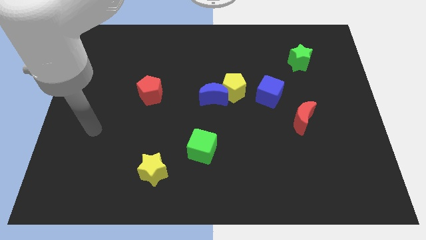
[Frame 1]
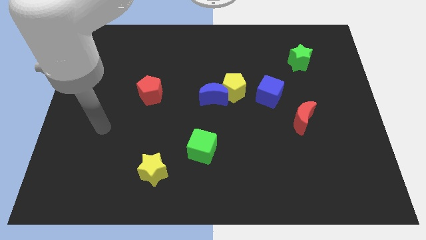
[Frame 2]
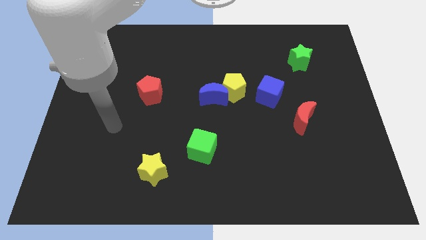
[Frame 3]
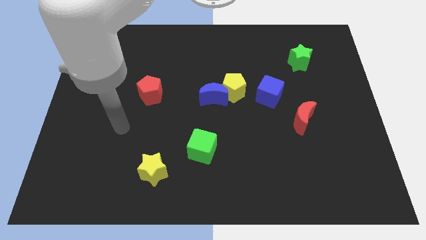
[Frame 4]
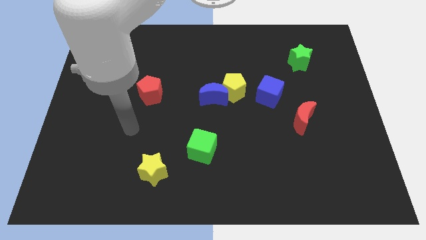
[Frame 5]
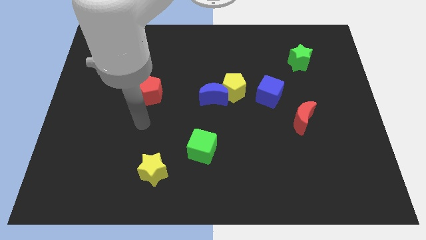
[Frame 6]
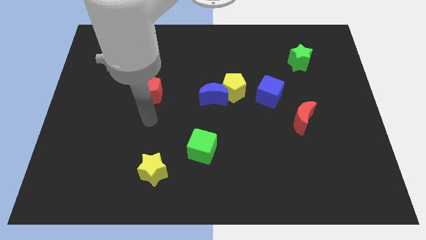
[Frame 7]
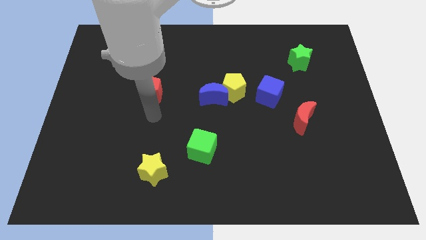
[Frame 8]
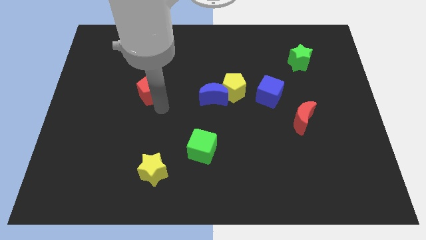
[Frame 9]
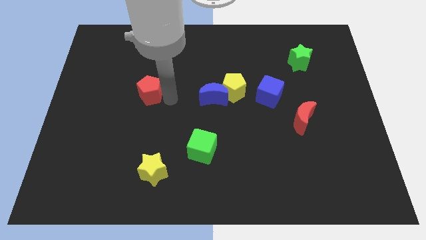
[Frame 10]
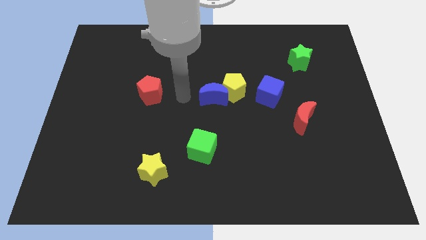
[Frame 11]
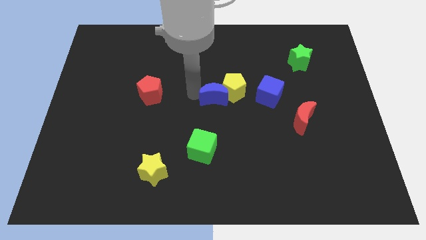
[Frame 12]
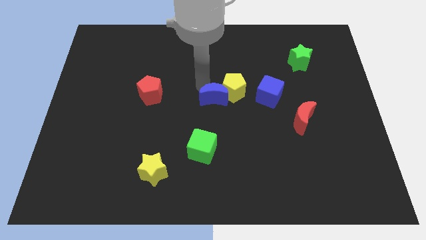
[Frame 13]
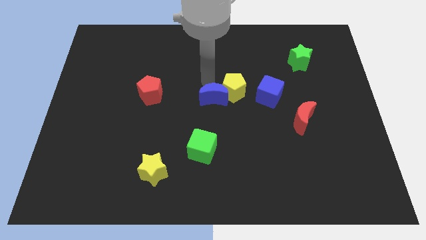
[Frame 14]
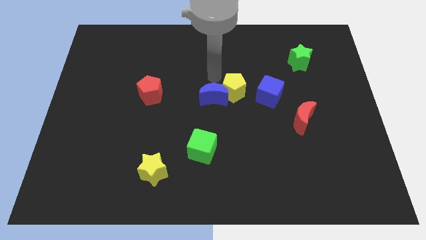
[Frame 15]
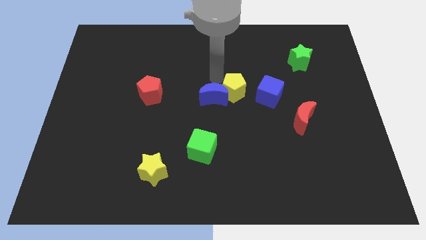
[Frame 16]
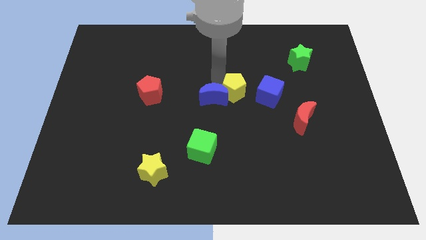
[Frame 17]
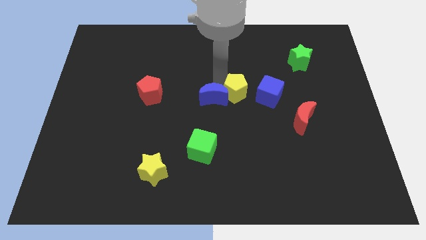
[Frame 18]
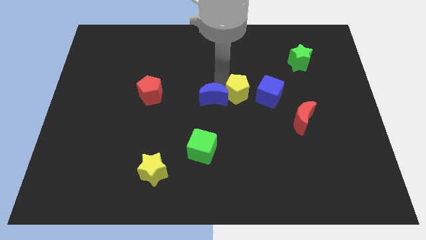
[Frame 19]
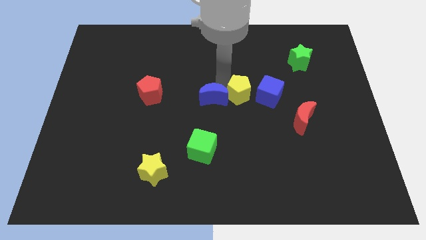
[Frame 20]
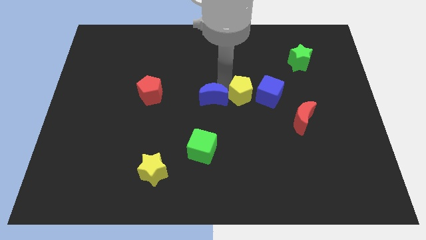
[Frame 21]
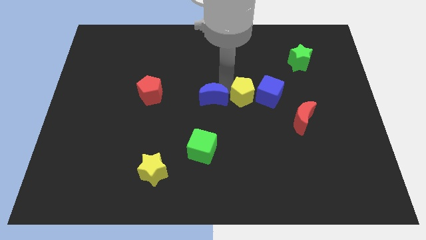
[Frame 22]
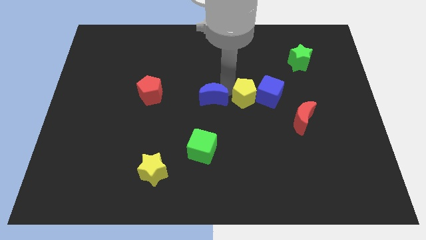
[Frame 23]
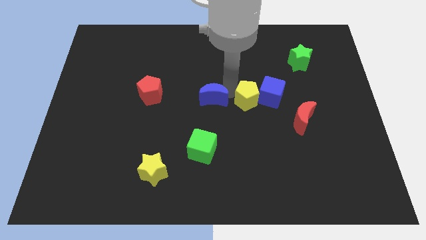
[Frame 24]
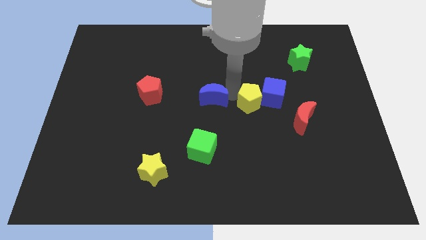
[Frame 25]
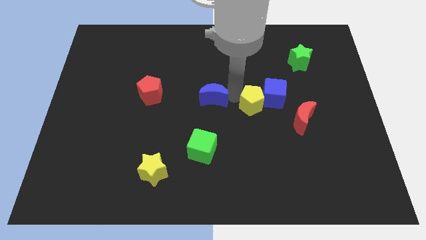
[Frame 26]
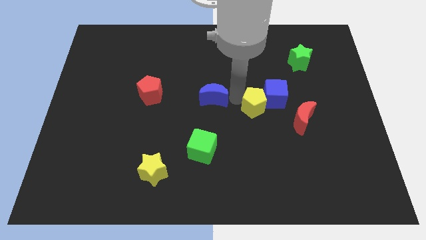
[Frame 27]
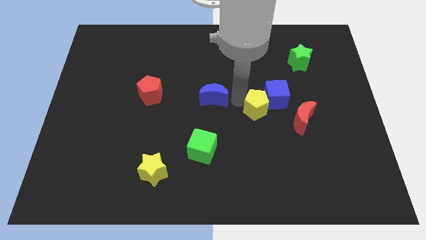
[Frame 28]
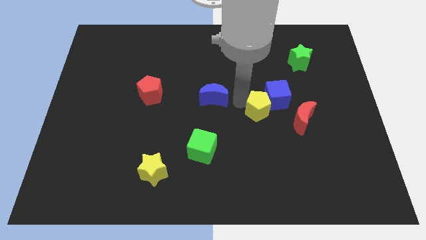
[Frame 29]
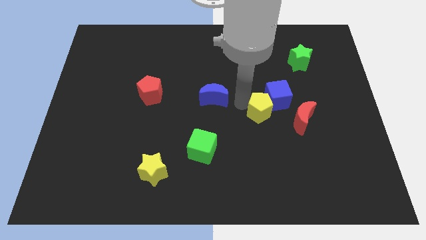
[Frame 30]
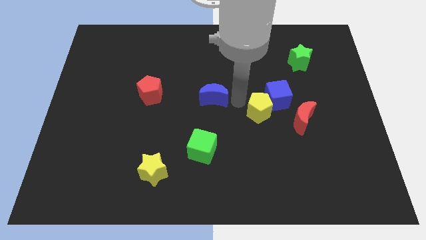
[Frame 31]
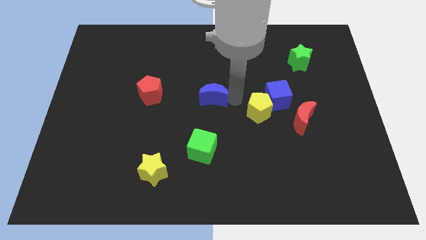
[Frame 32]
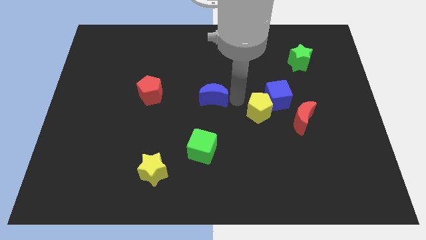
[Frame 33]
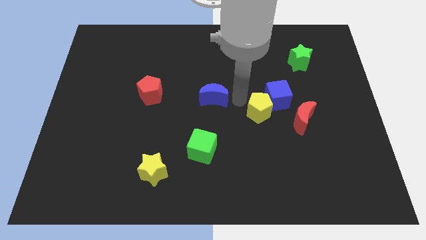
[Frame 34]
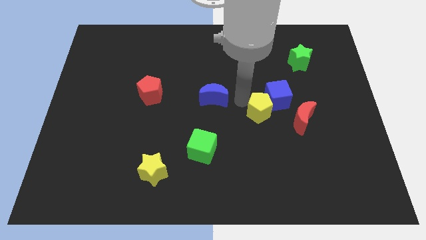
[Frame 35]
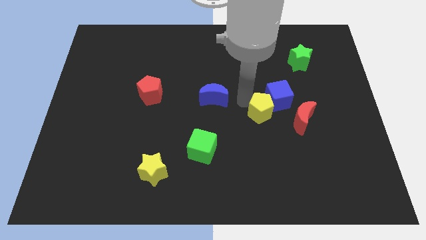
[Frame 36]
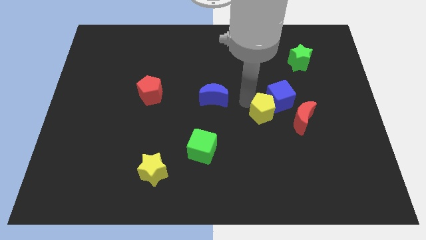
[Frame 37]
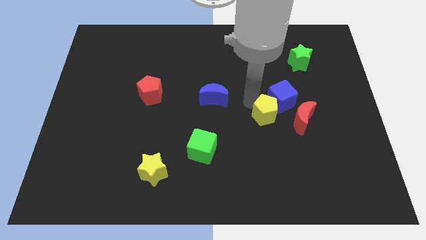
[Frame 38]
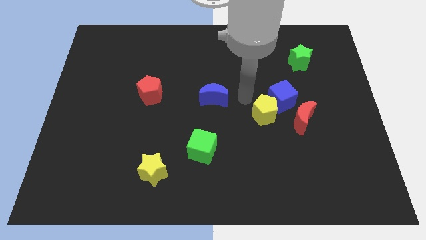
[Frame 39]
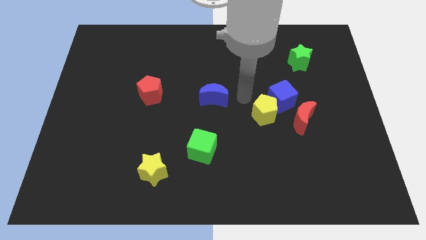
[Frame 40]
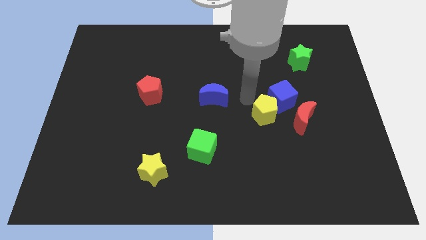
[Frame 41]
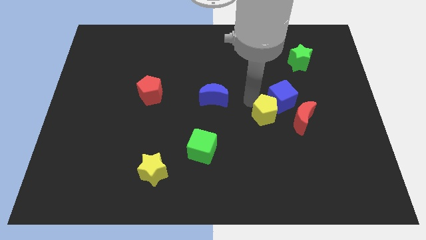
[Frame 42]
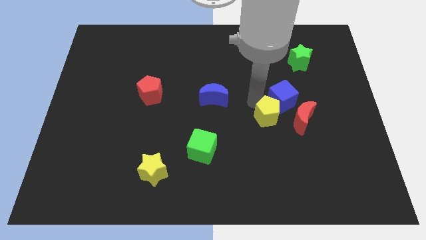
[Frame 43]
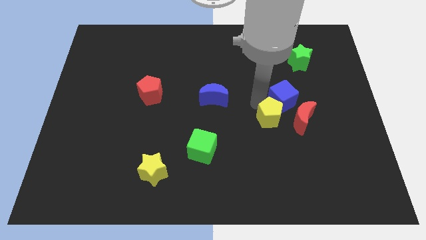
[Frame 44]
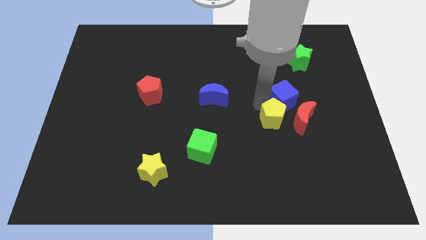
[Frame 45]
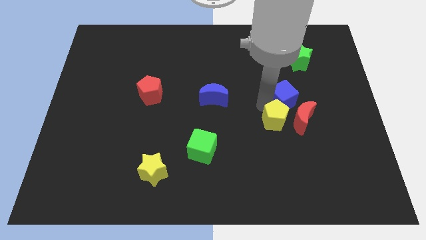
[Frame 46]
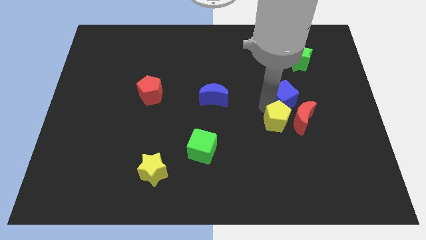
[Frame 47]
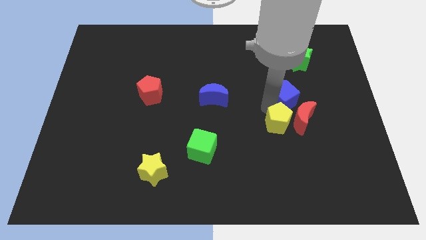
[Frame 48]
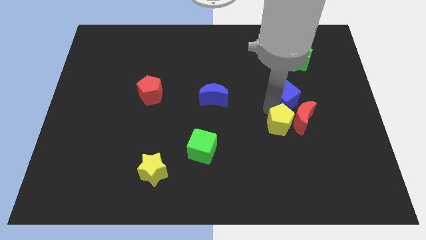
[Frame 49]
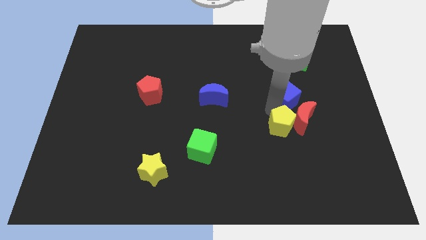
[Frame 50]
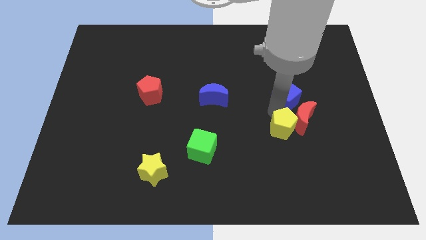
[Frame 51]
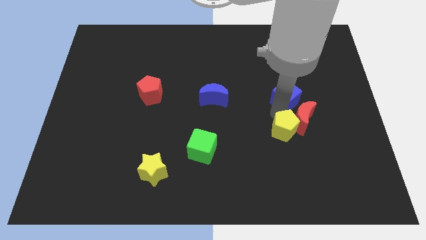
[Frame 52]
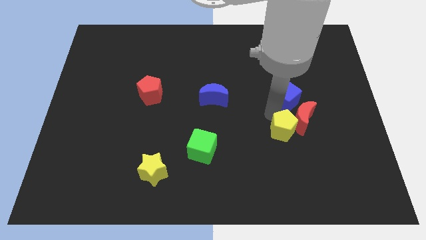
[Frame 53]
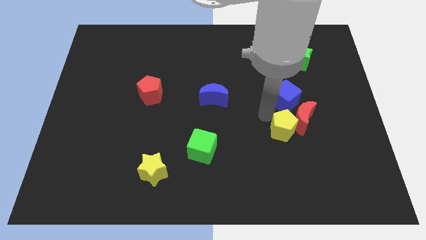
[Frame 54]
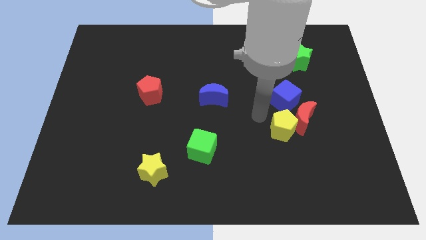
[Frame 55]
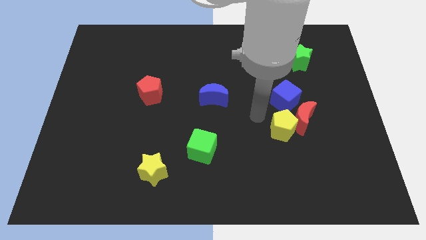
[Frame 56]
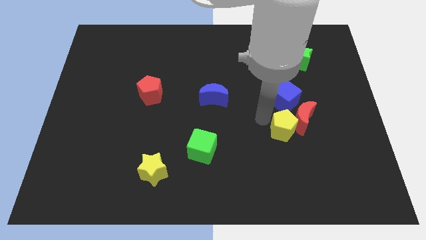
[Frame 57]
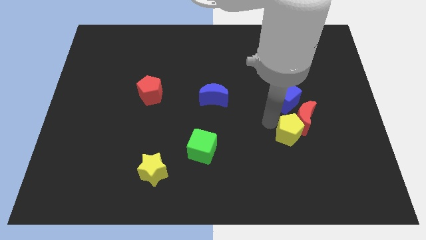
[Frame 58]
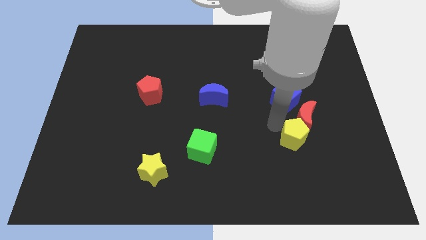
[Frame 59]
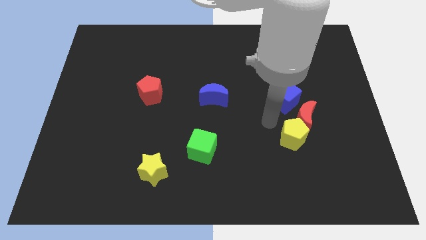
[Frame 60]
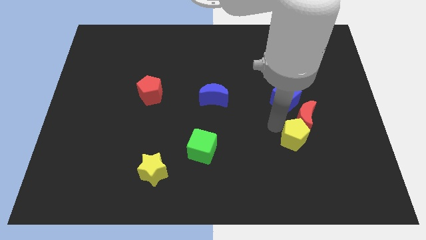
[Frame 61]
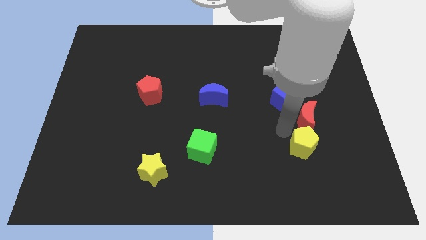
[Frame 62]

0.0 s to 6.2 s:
slide the yellow pentagon down and right

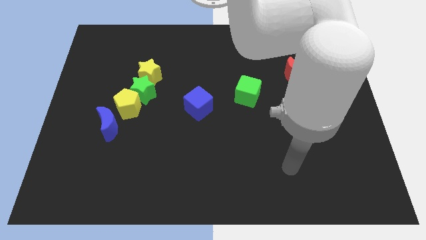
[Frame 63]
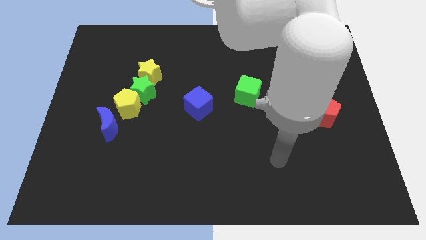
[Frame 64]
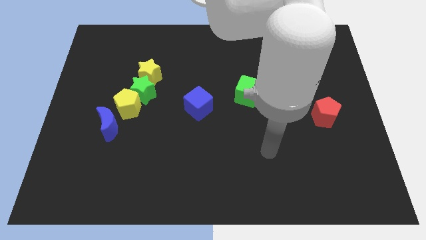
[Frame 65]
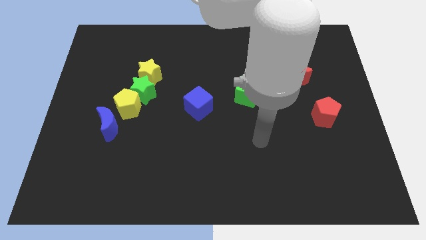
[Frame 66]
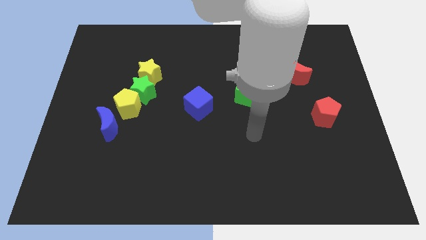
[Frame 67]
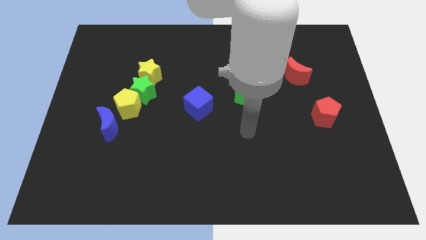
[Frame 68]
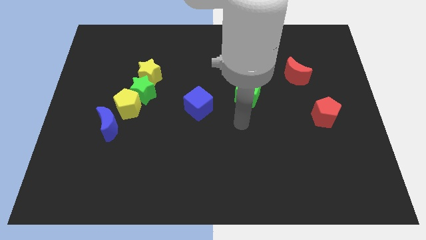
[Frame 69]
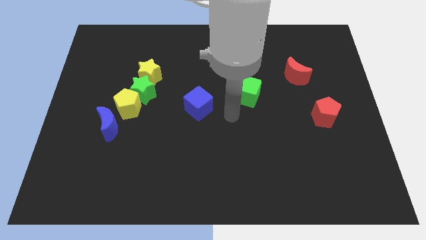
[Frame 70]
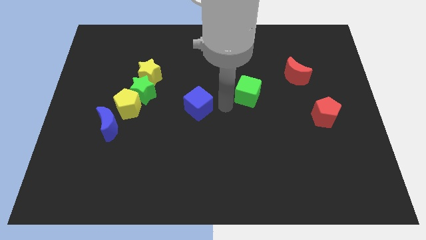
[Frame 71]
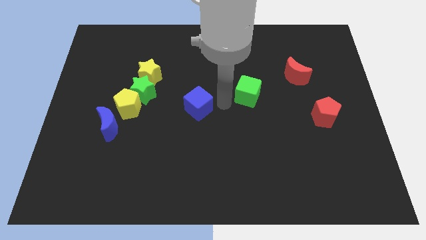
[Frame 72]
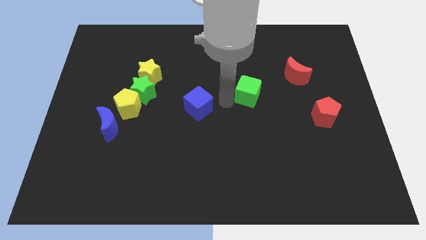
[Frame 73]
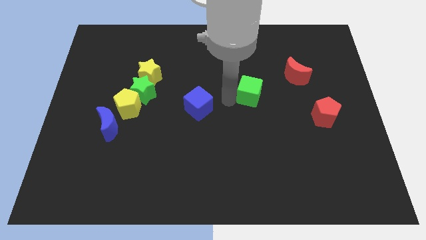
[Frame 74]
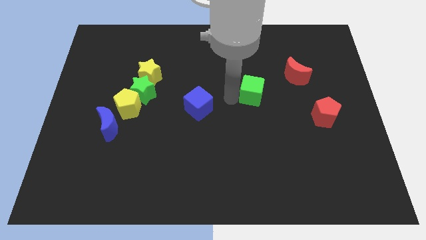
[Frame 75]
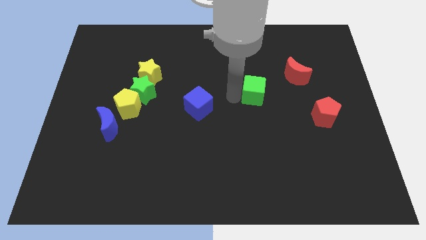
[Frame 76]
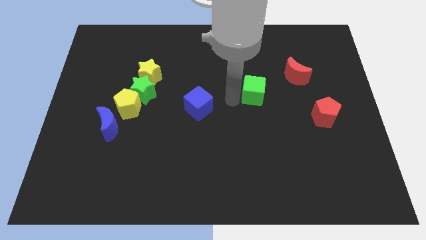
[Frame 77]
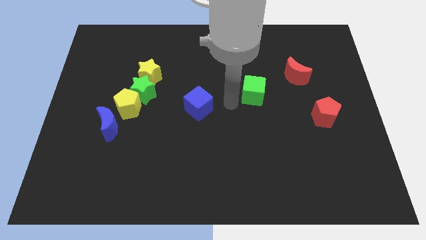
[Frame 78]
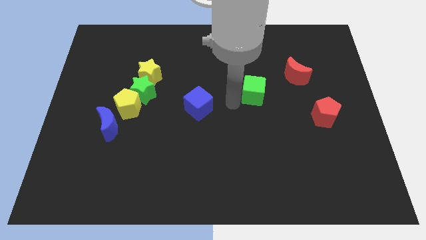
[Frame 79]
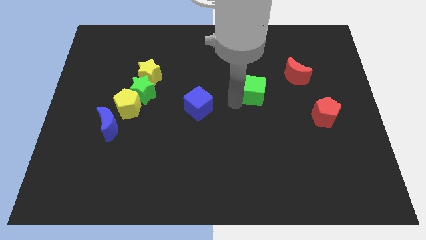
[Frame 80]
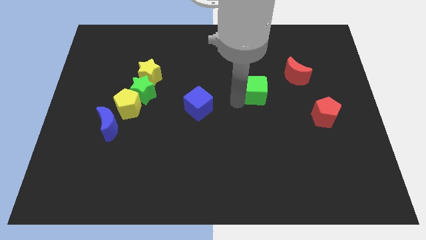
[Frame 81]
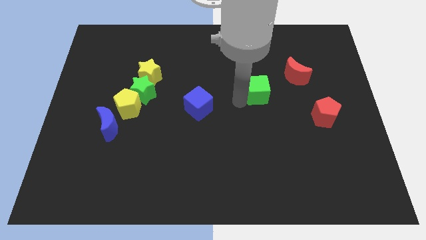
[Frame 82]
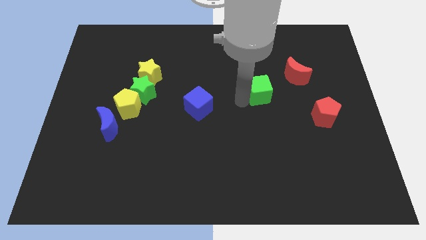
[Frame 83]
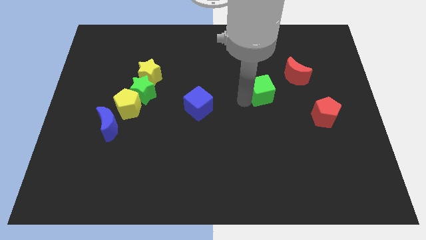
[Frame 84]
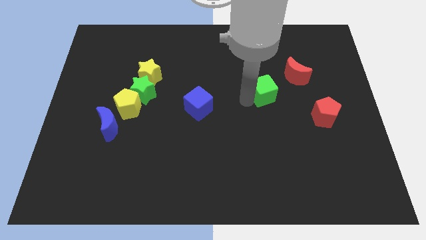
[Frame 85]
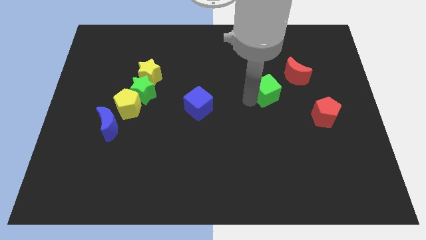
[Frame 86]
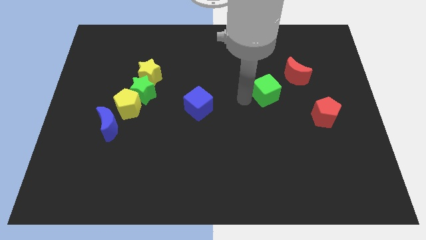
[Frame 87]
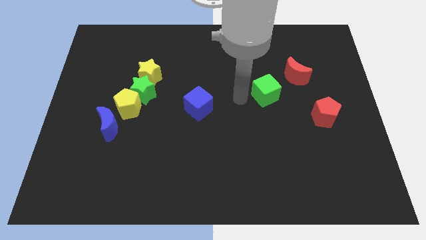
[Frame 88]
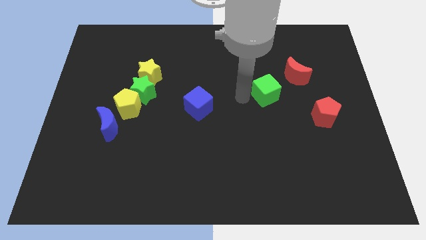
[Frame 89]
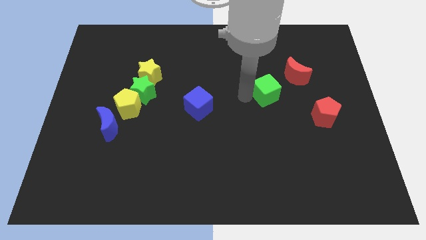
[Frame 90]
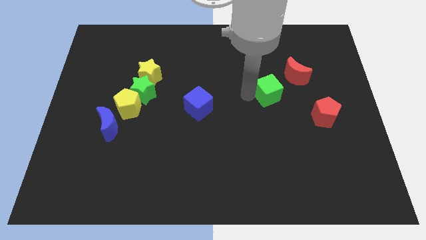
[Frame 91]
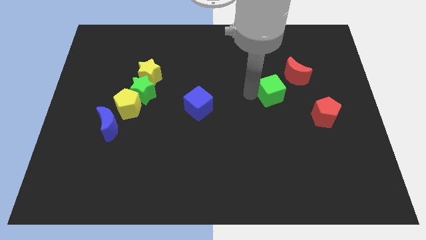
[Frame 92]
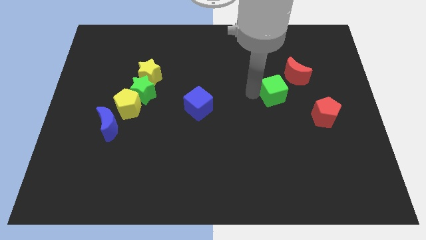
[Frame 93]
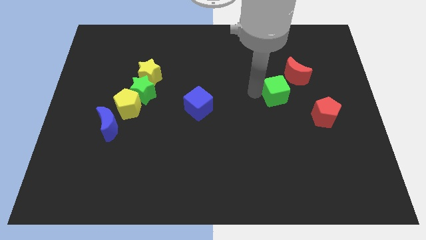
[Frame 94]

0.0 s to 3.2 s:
slide the green cube right slightly
